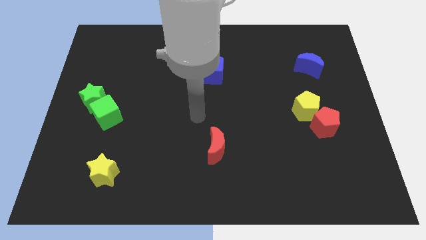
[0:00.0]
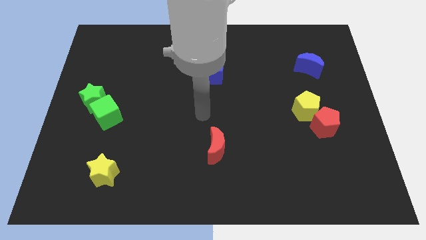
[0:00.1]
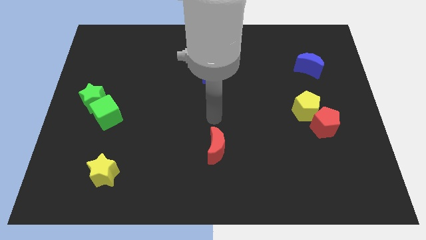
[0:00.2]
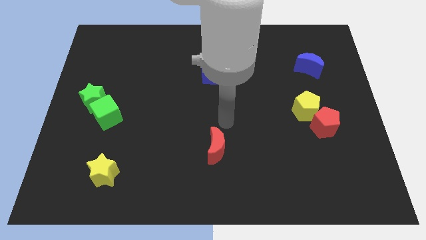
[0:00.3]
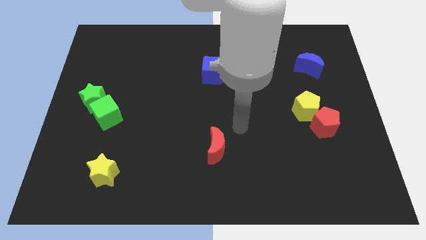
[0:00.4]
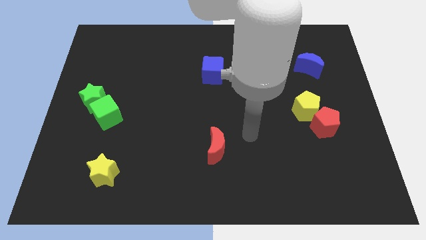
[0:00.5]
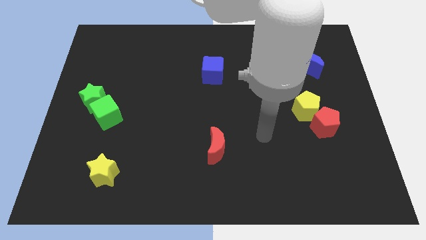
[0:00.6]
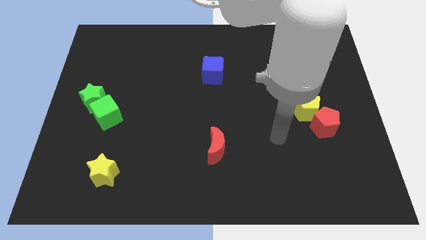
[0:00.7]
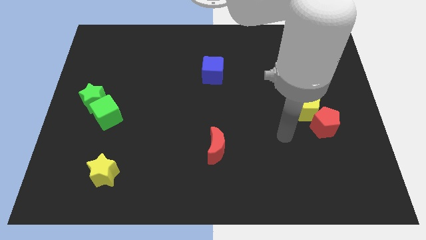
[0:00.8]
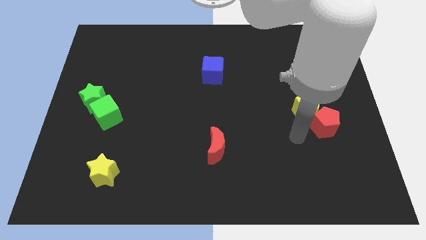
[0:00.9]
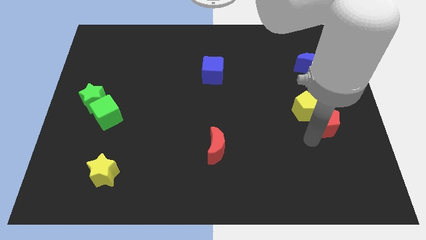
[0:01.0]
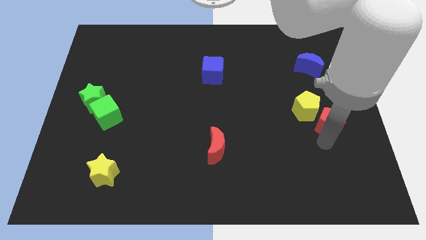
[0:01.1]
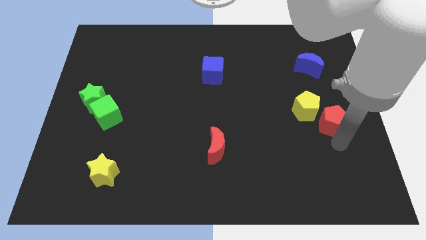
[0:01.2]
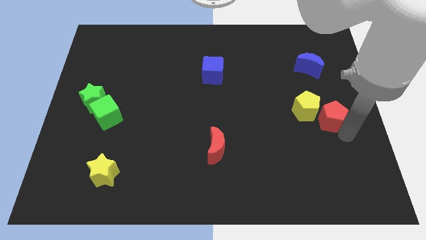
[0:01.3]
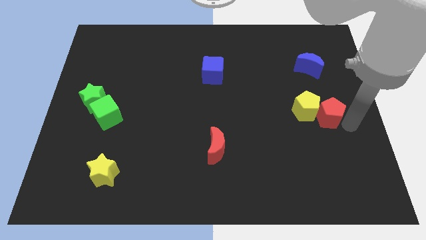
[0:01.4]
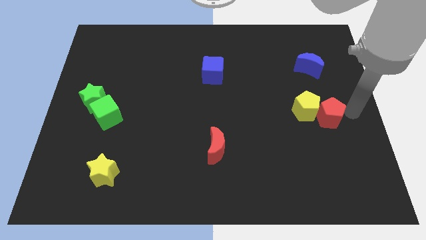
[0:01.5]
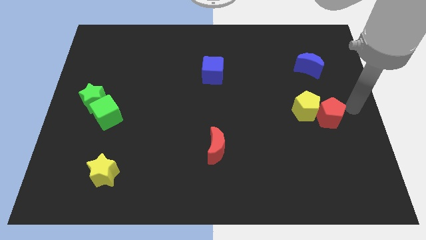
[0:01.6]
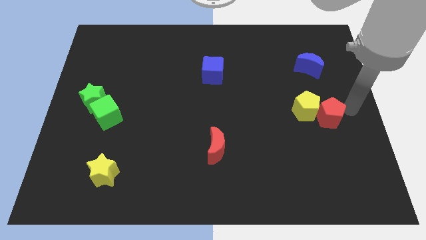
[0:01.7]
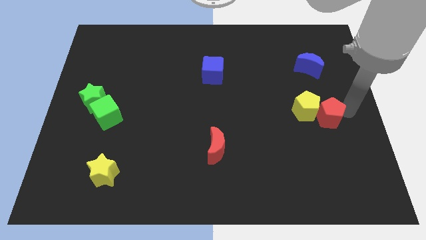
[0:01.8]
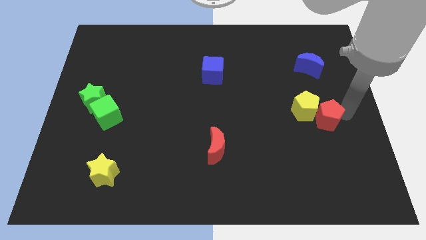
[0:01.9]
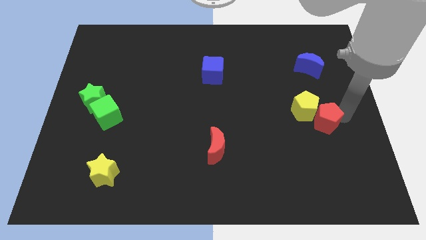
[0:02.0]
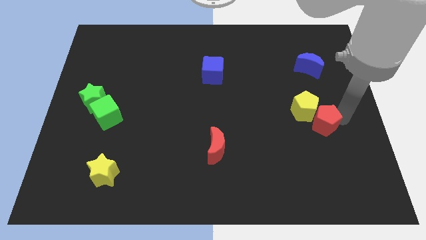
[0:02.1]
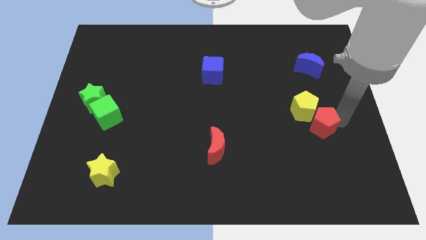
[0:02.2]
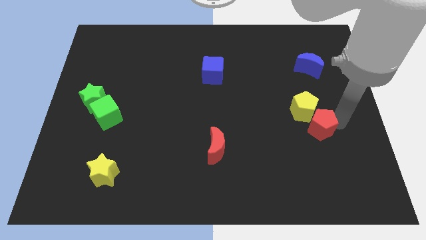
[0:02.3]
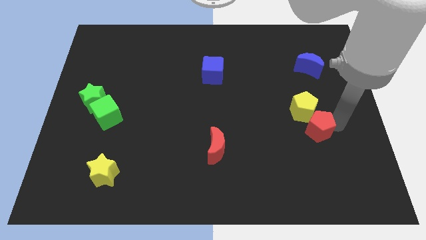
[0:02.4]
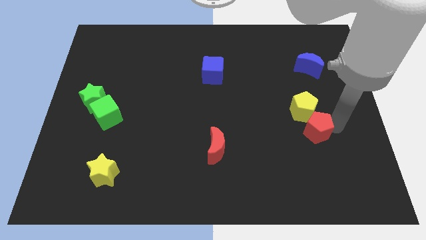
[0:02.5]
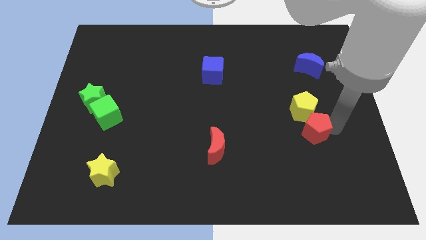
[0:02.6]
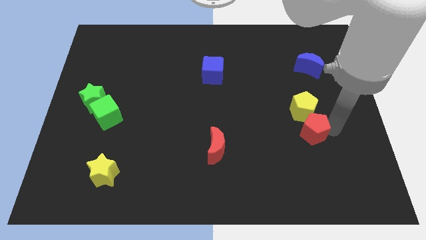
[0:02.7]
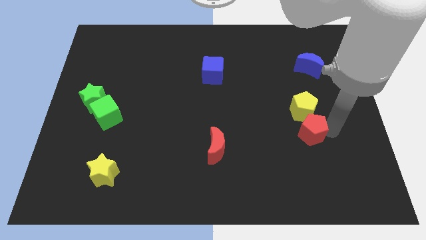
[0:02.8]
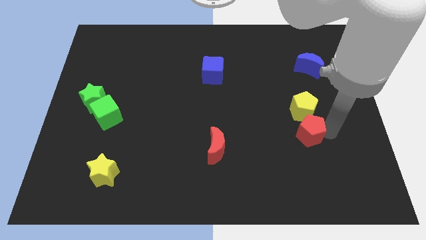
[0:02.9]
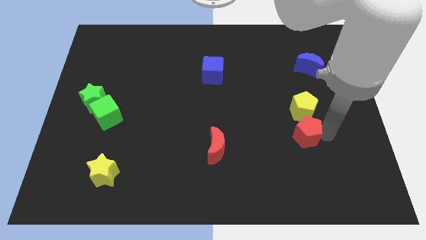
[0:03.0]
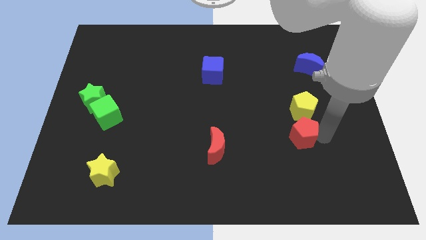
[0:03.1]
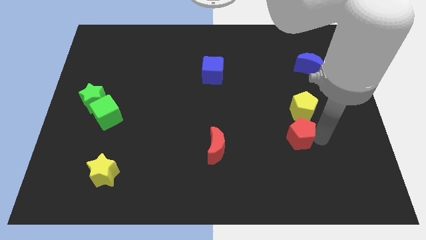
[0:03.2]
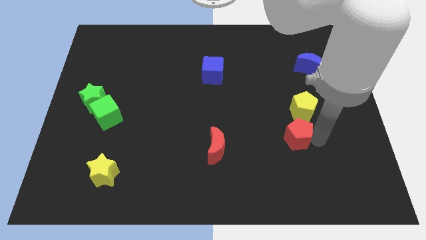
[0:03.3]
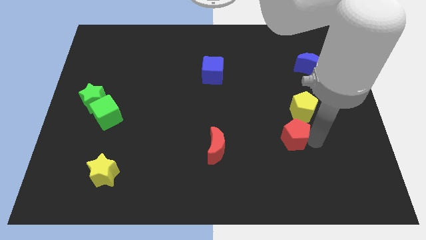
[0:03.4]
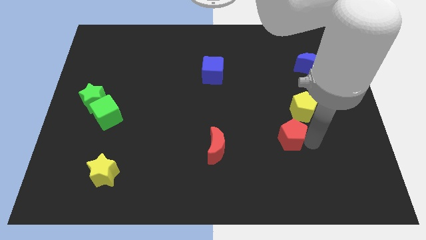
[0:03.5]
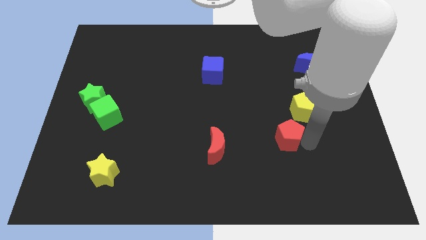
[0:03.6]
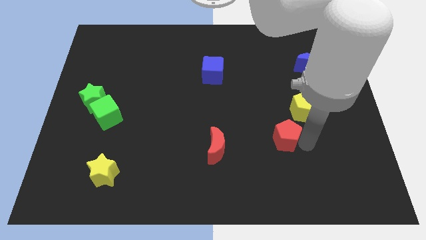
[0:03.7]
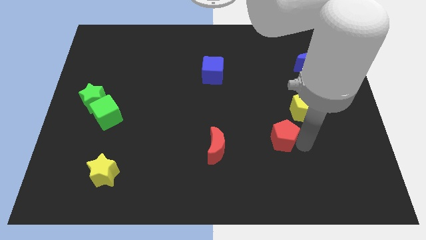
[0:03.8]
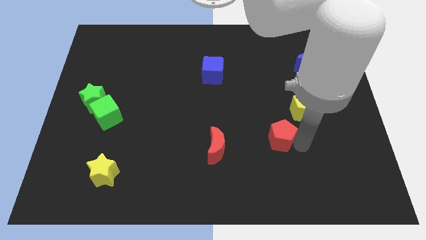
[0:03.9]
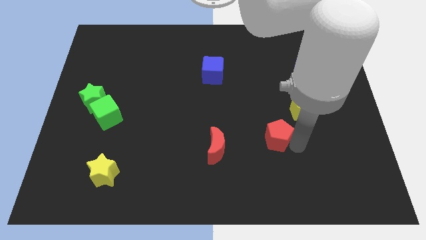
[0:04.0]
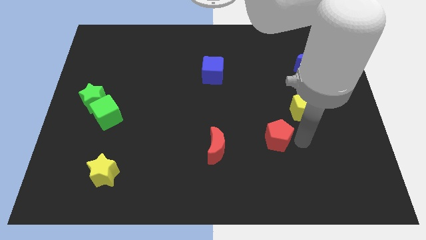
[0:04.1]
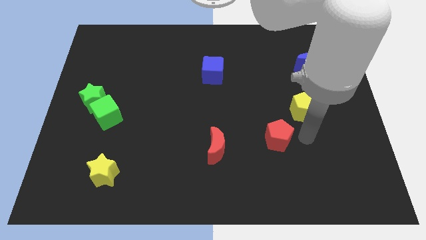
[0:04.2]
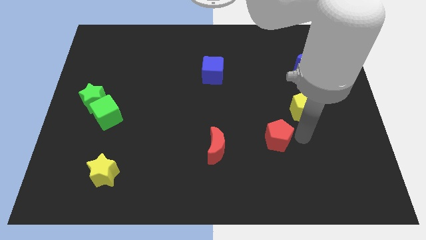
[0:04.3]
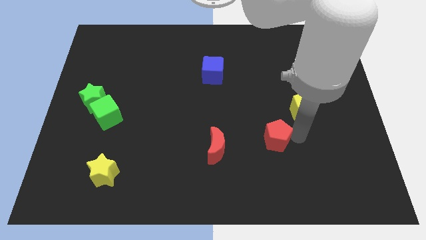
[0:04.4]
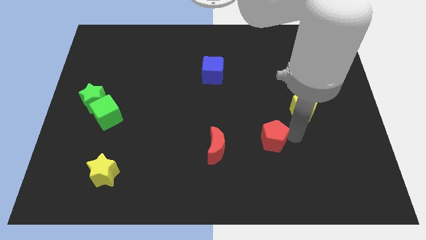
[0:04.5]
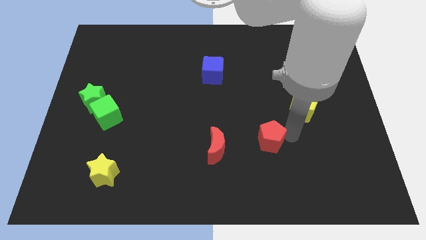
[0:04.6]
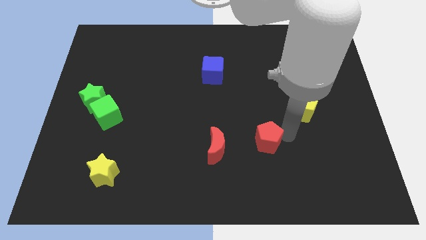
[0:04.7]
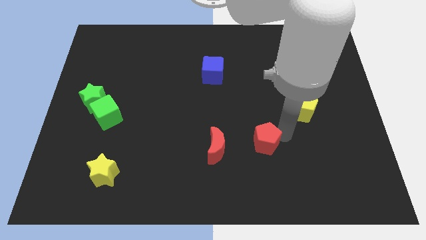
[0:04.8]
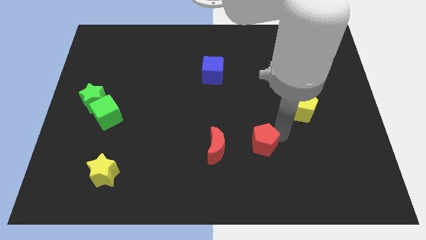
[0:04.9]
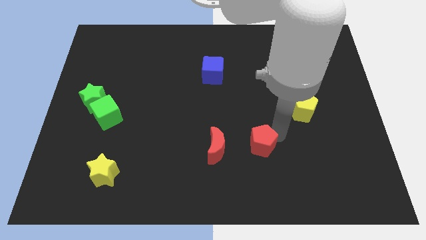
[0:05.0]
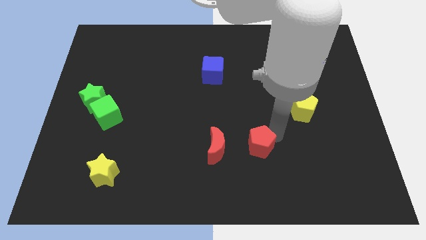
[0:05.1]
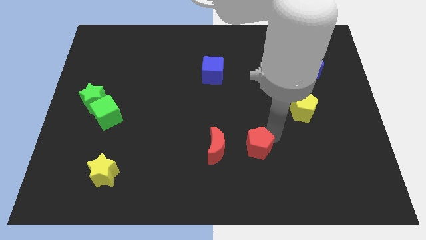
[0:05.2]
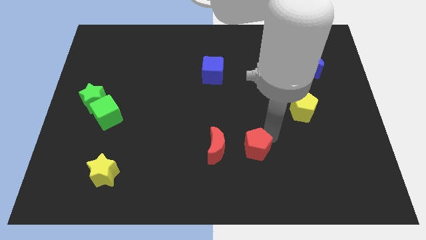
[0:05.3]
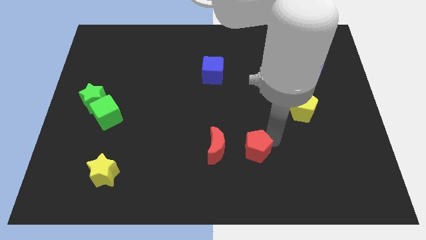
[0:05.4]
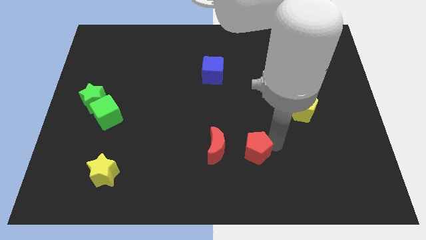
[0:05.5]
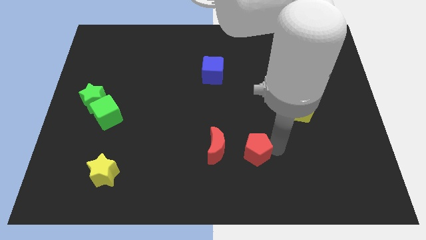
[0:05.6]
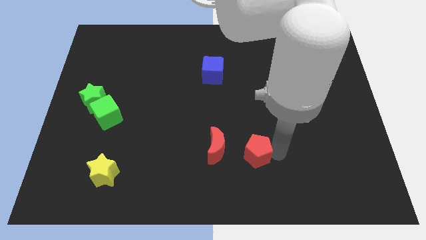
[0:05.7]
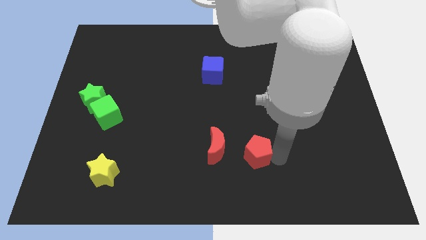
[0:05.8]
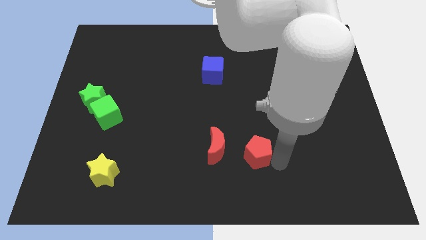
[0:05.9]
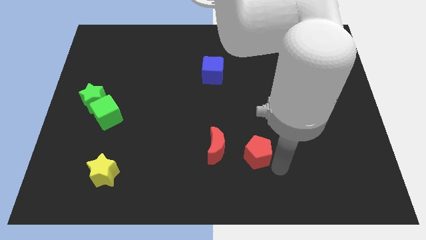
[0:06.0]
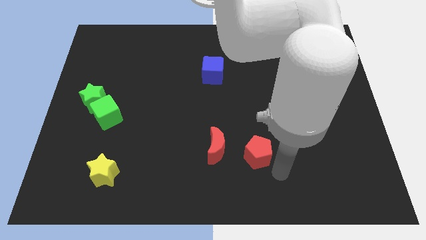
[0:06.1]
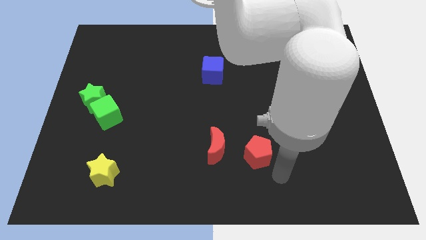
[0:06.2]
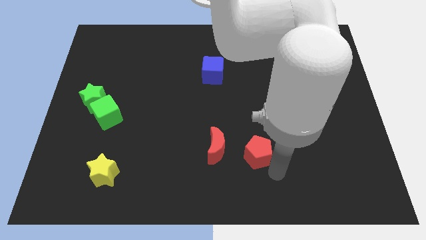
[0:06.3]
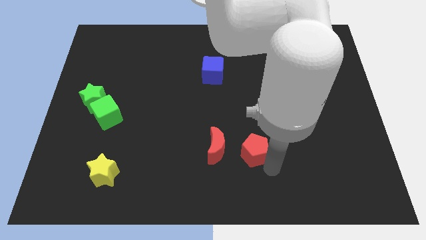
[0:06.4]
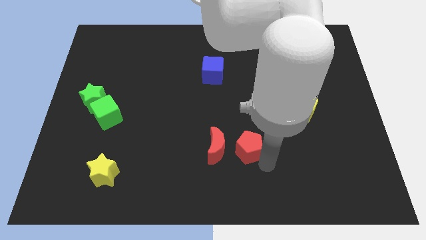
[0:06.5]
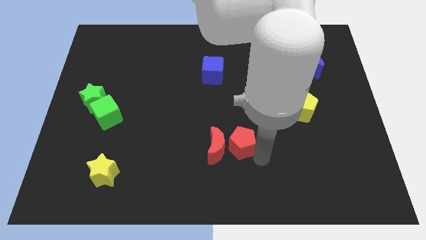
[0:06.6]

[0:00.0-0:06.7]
move the red pentagon to the red moon

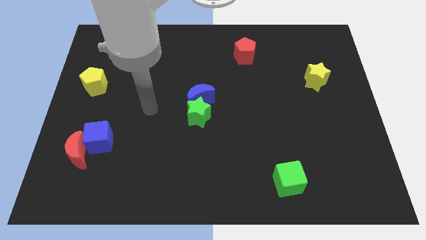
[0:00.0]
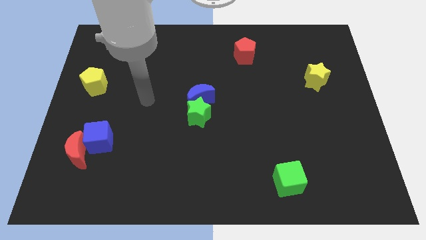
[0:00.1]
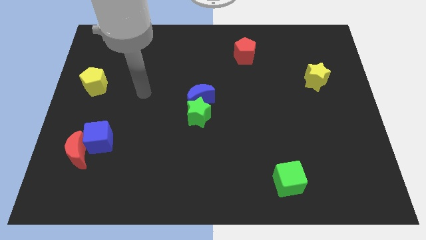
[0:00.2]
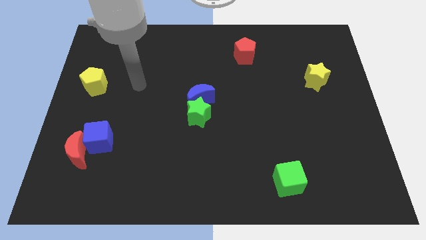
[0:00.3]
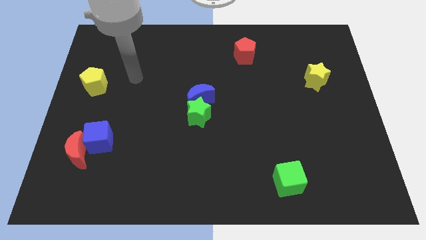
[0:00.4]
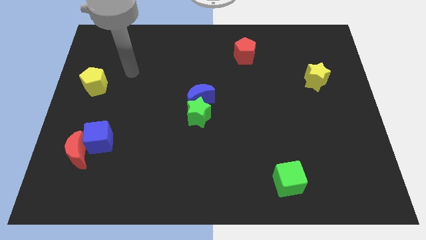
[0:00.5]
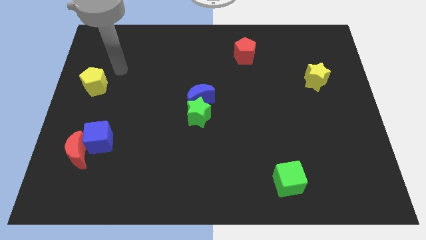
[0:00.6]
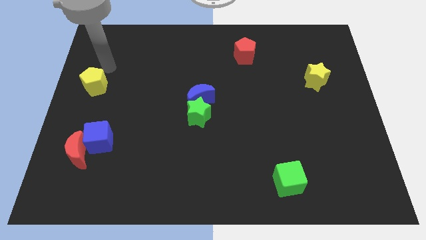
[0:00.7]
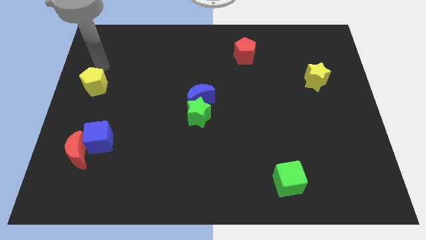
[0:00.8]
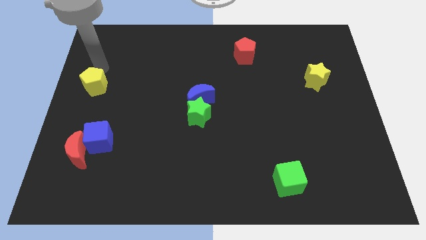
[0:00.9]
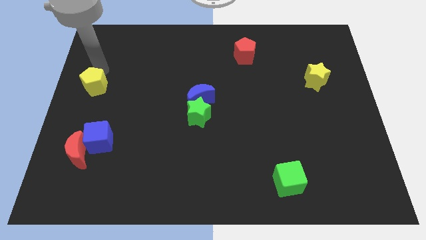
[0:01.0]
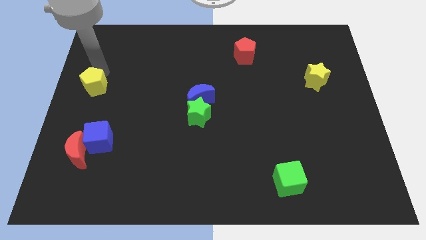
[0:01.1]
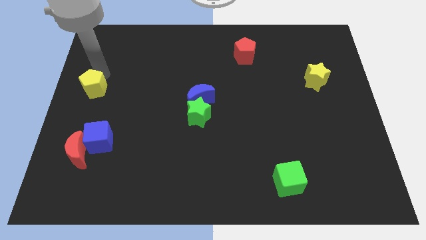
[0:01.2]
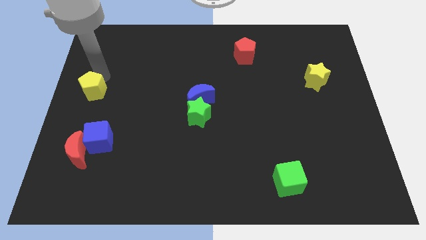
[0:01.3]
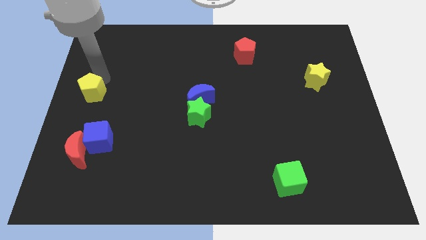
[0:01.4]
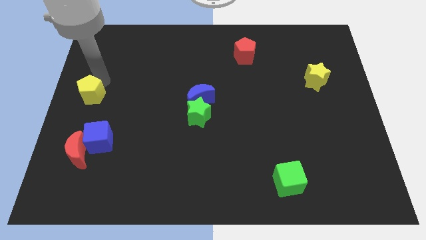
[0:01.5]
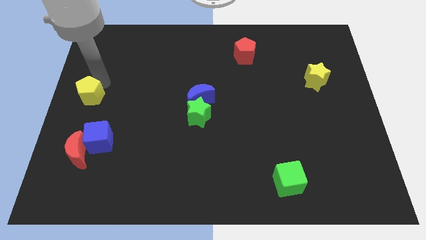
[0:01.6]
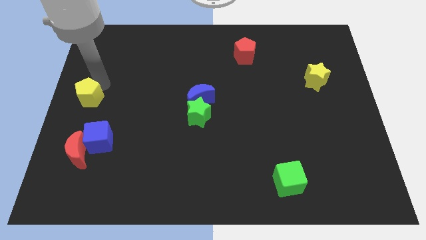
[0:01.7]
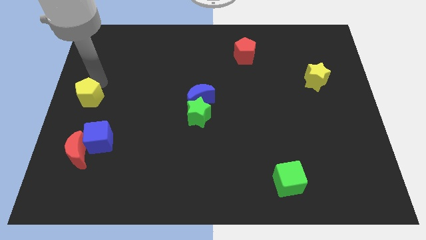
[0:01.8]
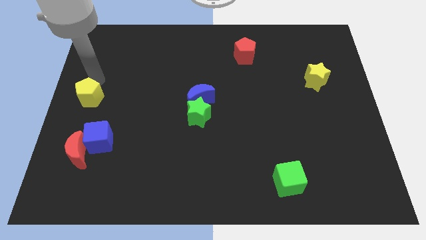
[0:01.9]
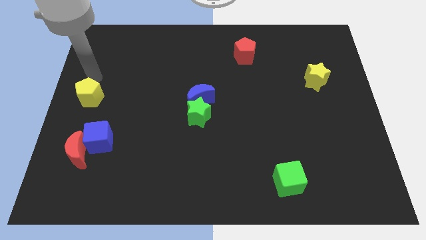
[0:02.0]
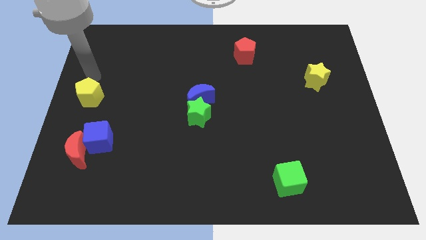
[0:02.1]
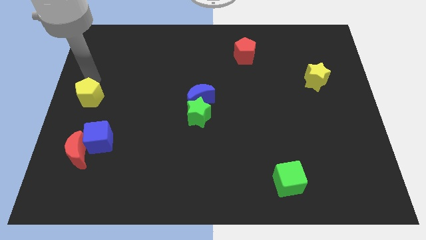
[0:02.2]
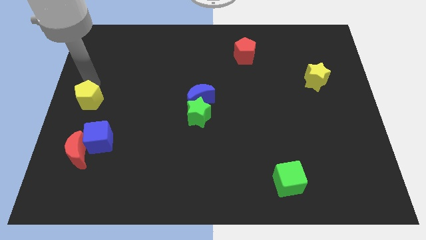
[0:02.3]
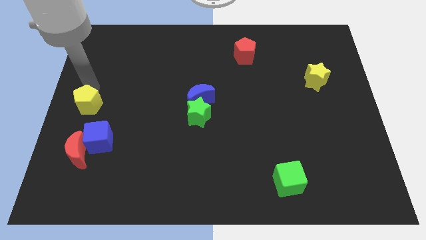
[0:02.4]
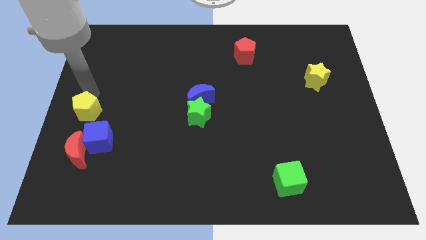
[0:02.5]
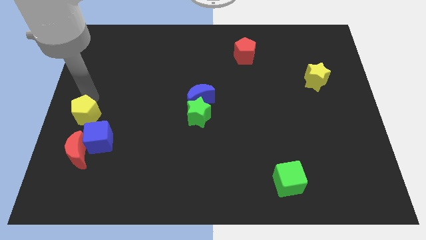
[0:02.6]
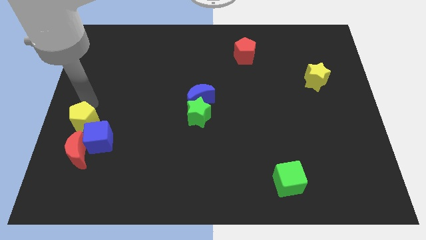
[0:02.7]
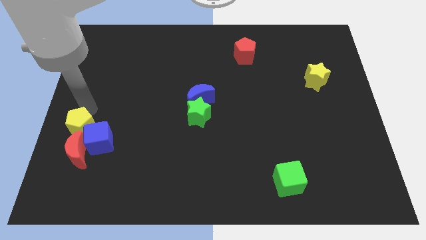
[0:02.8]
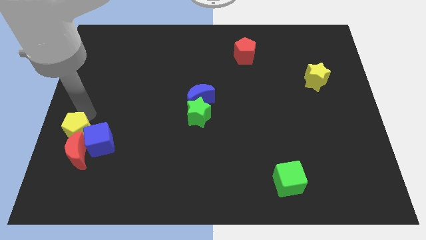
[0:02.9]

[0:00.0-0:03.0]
put the yellow pentagon towards the red moon
